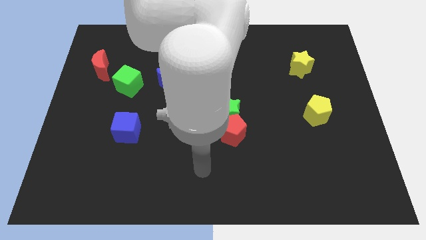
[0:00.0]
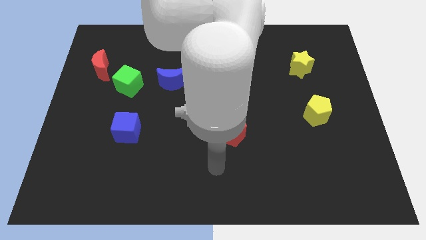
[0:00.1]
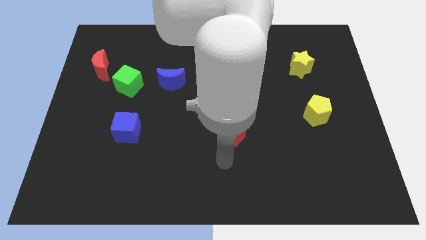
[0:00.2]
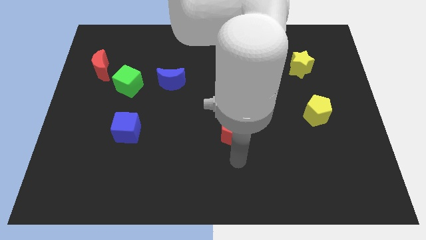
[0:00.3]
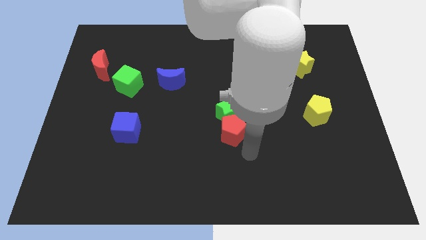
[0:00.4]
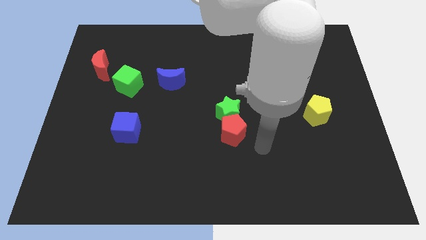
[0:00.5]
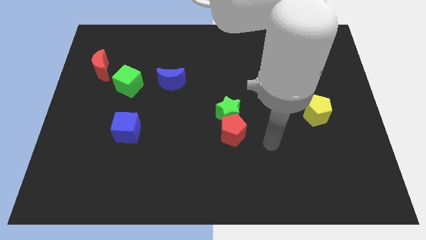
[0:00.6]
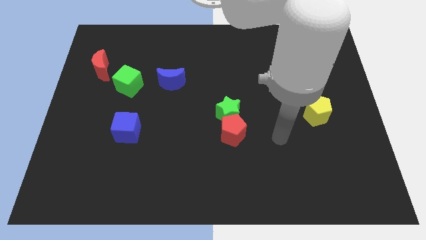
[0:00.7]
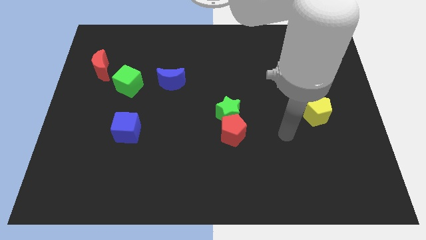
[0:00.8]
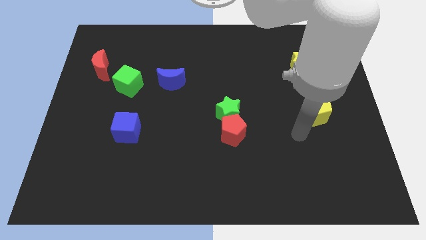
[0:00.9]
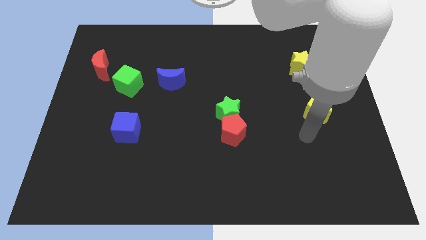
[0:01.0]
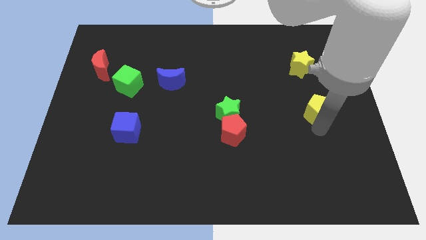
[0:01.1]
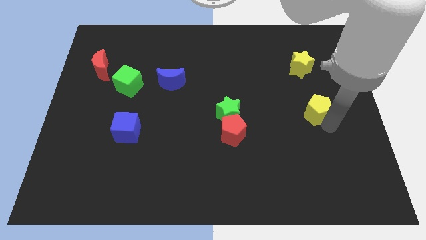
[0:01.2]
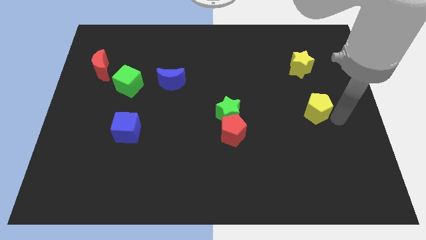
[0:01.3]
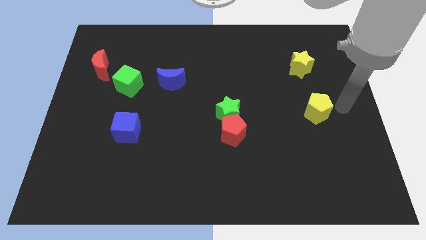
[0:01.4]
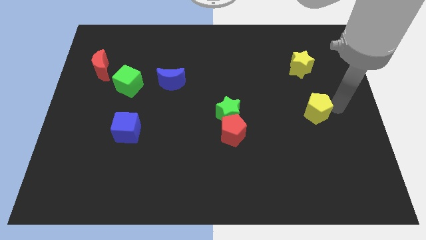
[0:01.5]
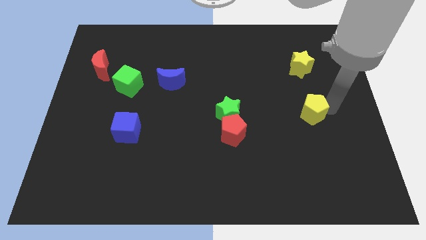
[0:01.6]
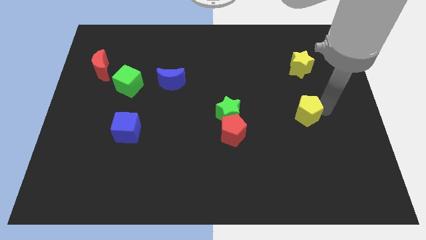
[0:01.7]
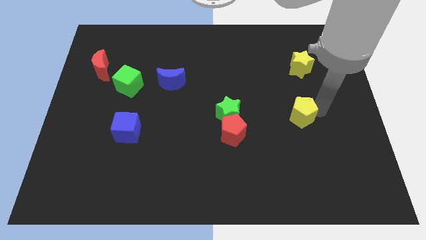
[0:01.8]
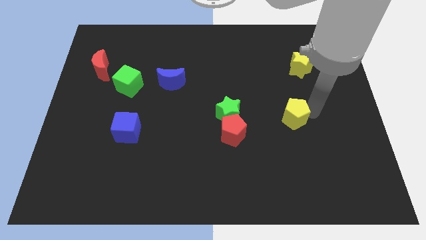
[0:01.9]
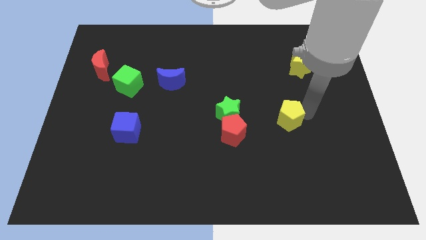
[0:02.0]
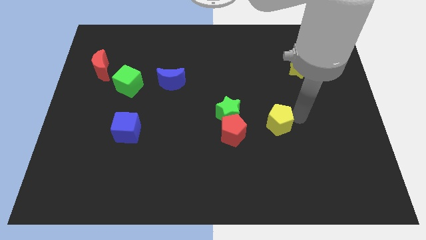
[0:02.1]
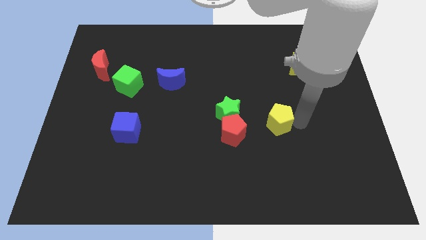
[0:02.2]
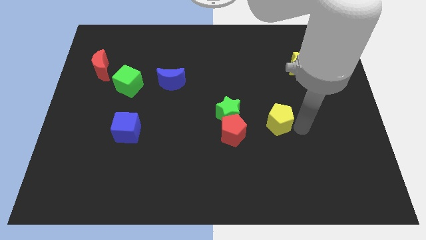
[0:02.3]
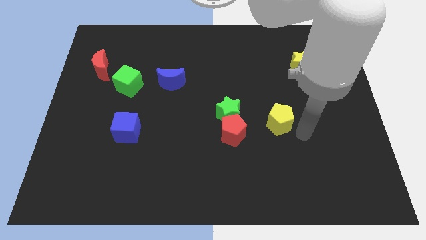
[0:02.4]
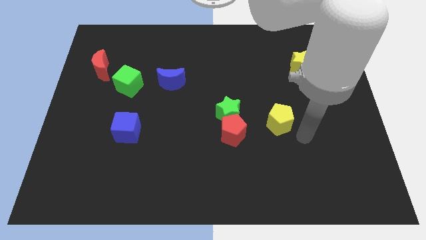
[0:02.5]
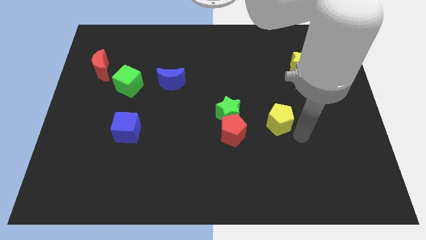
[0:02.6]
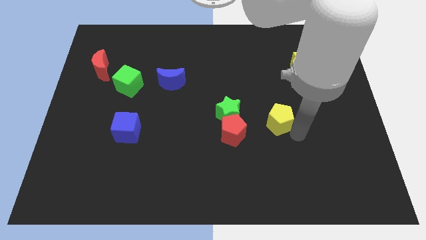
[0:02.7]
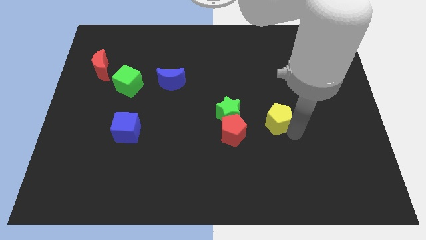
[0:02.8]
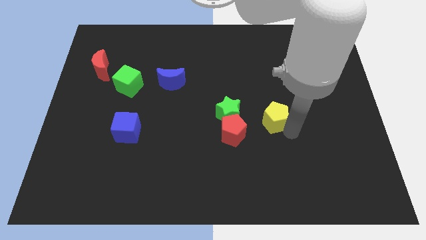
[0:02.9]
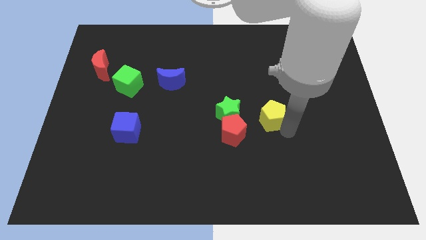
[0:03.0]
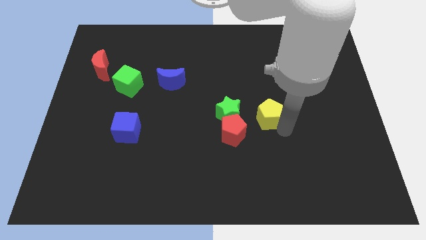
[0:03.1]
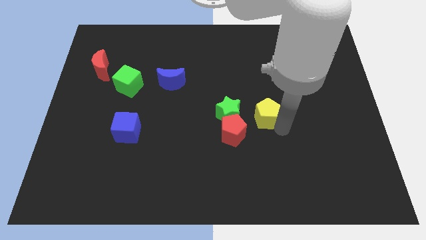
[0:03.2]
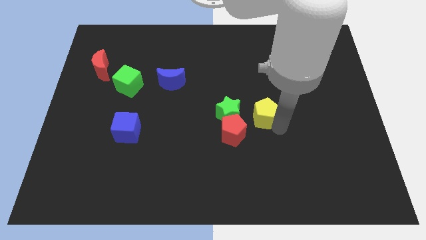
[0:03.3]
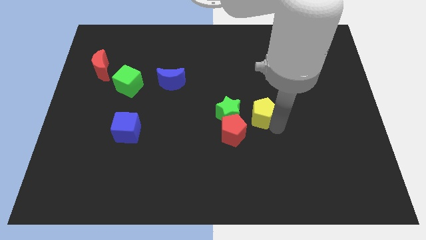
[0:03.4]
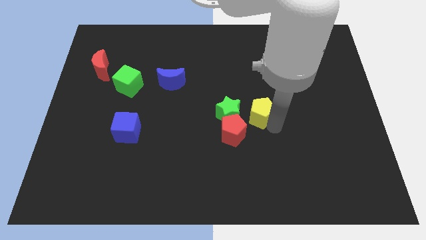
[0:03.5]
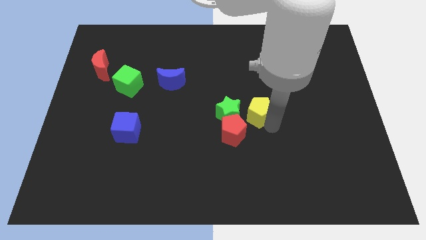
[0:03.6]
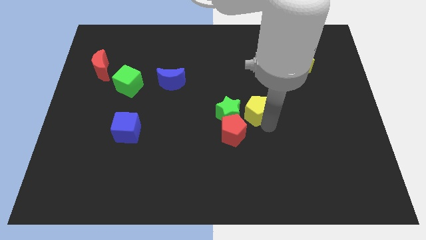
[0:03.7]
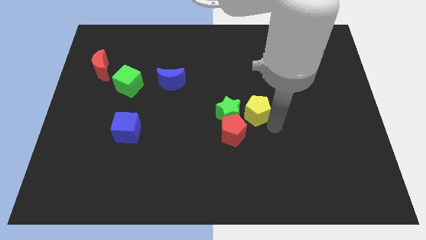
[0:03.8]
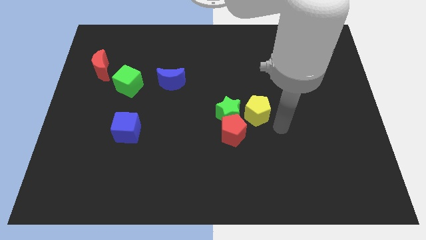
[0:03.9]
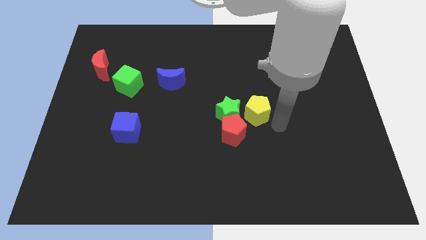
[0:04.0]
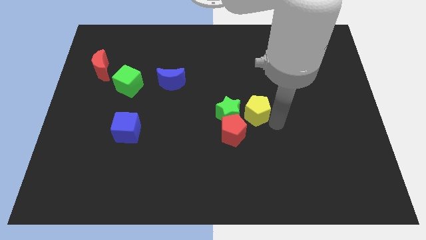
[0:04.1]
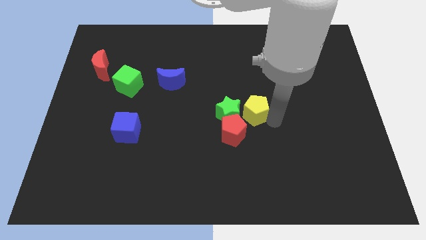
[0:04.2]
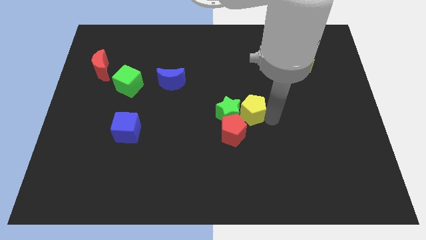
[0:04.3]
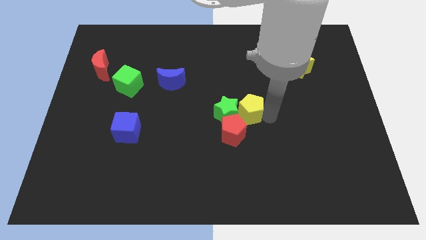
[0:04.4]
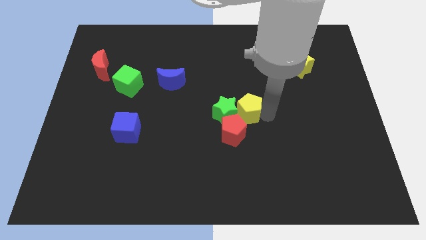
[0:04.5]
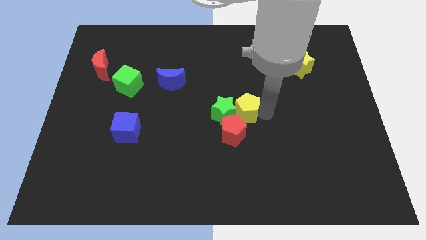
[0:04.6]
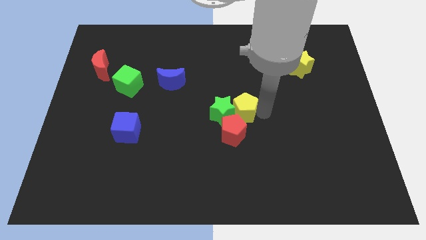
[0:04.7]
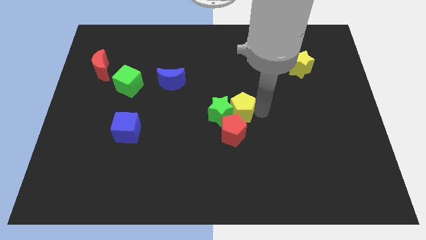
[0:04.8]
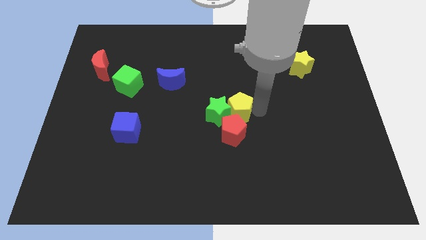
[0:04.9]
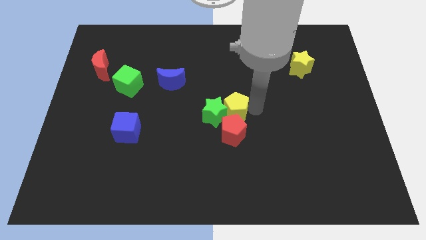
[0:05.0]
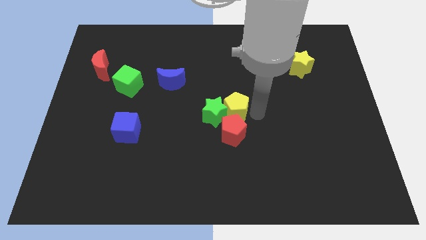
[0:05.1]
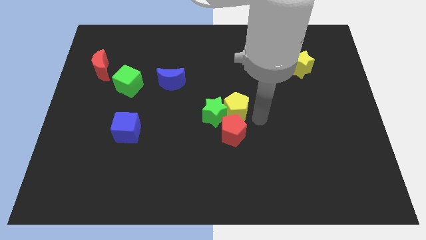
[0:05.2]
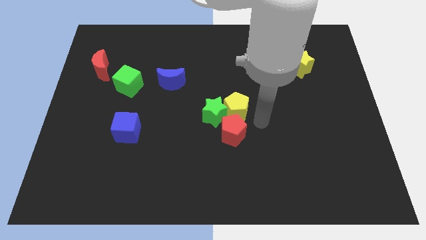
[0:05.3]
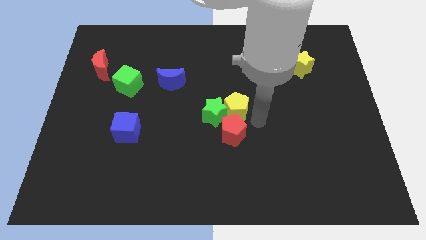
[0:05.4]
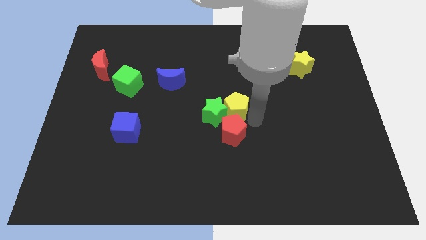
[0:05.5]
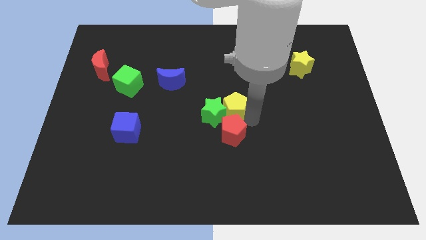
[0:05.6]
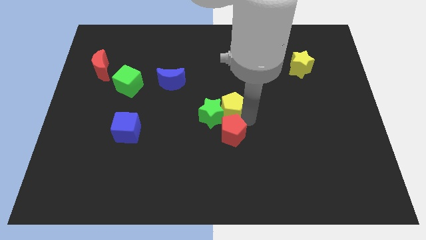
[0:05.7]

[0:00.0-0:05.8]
push the yellow pentagon left

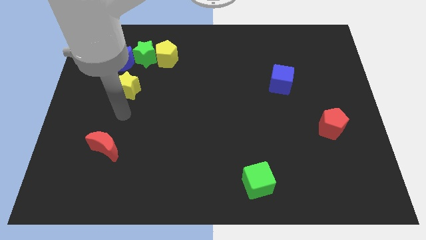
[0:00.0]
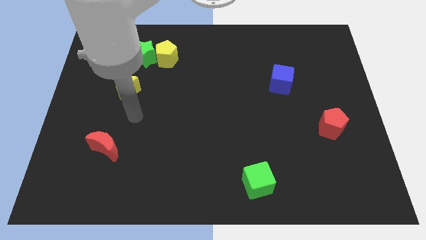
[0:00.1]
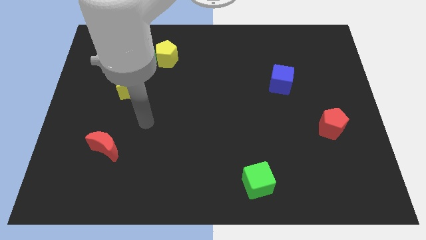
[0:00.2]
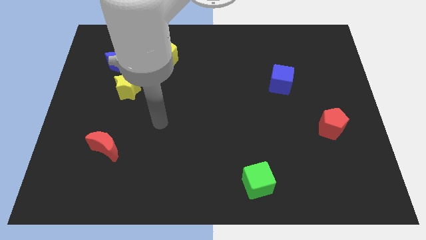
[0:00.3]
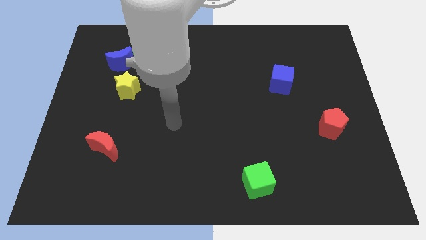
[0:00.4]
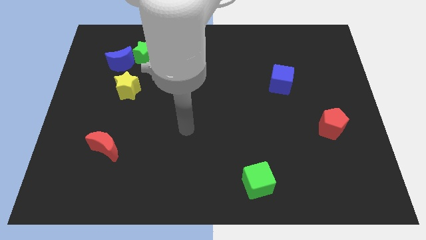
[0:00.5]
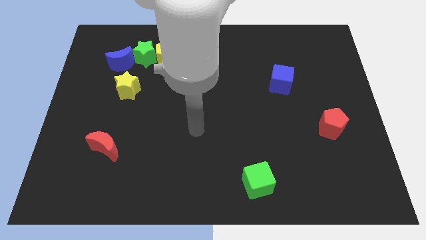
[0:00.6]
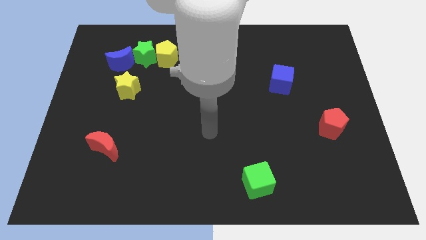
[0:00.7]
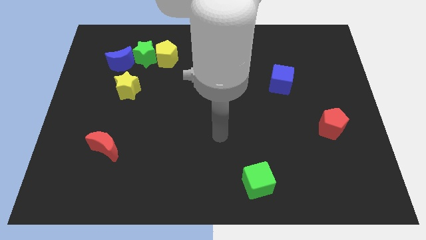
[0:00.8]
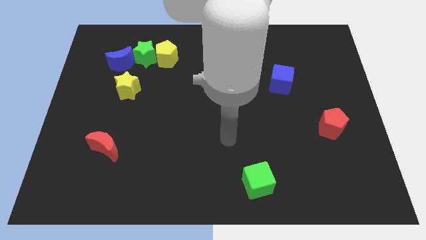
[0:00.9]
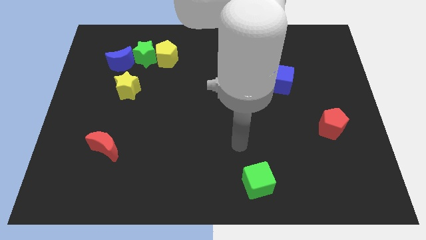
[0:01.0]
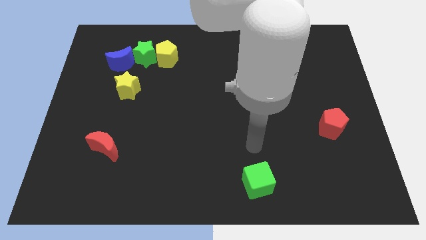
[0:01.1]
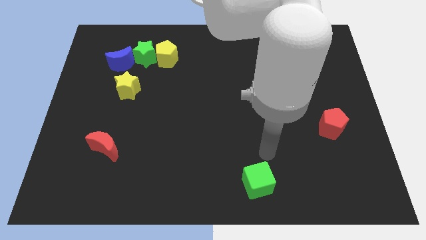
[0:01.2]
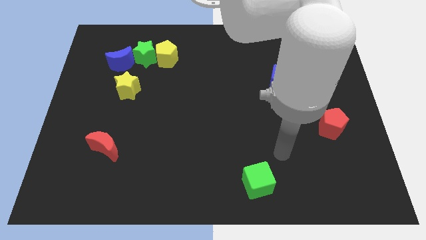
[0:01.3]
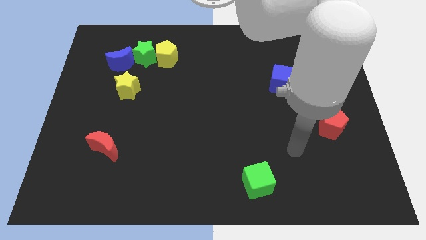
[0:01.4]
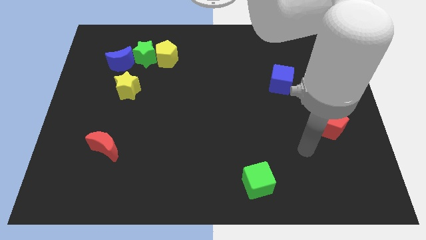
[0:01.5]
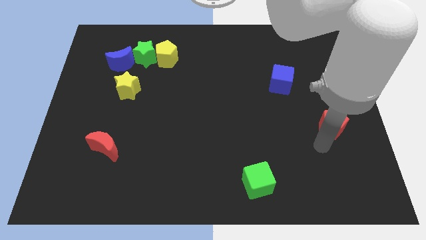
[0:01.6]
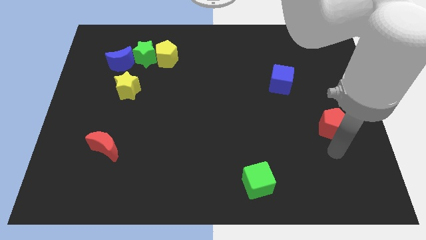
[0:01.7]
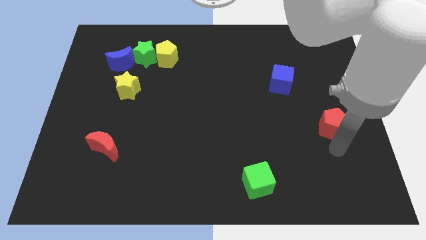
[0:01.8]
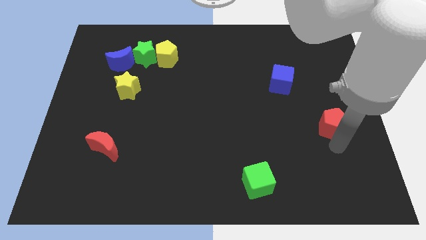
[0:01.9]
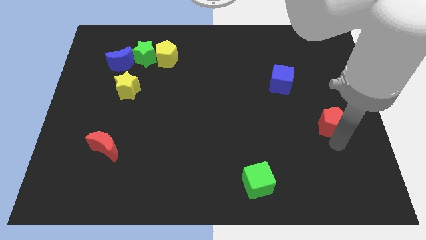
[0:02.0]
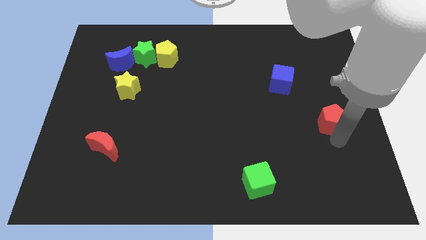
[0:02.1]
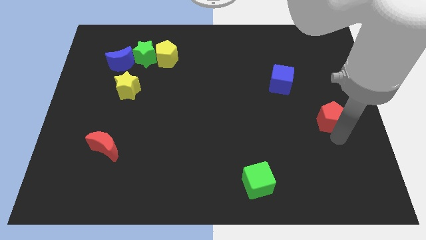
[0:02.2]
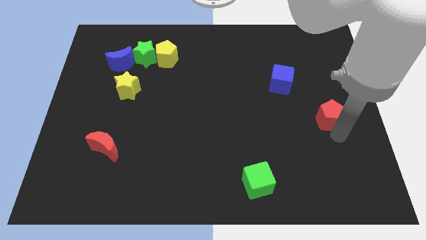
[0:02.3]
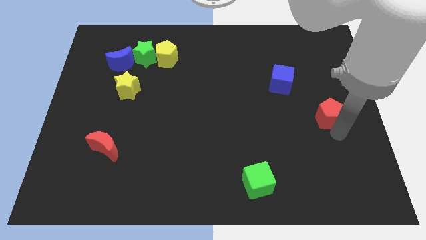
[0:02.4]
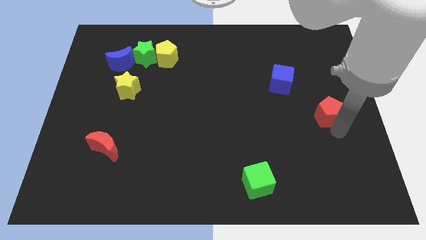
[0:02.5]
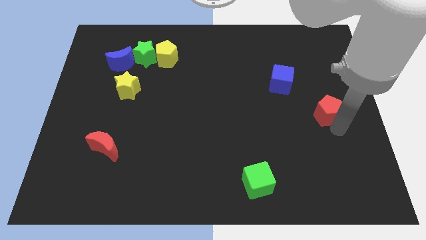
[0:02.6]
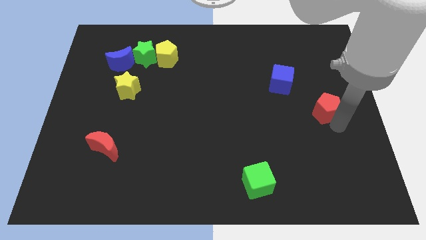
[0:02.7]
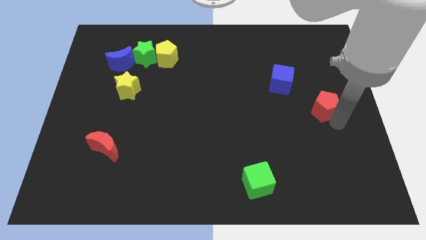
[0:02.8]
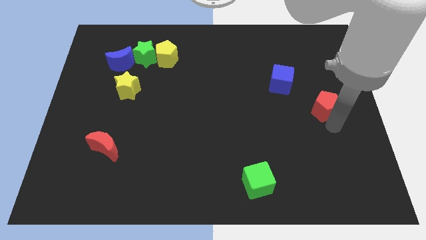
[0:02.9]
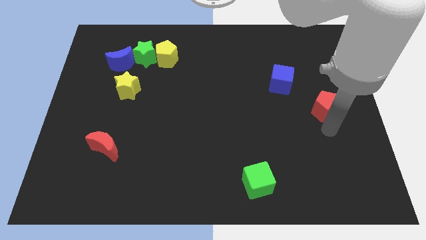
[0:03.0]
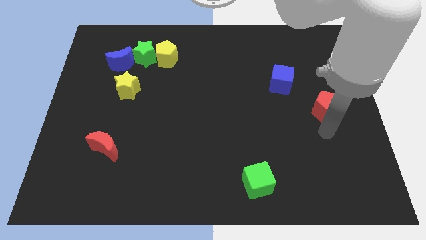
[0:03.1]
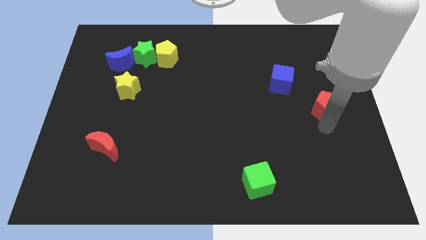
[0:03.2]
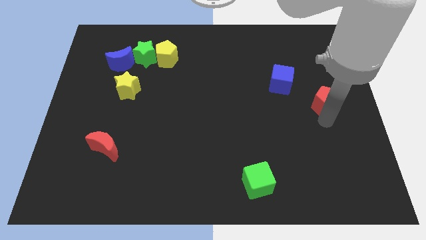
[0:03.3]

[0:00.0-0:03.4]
slide the red pentagon a little bit up
